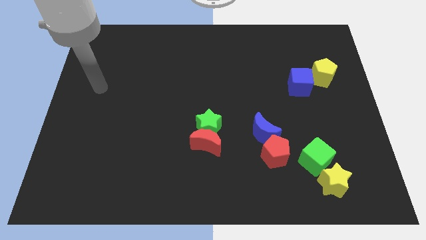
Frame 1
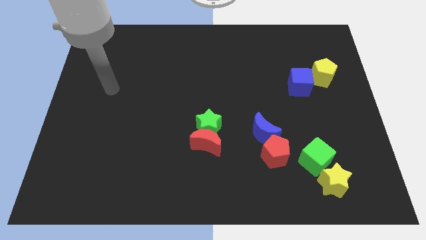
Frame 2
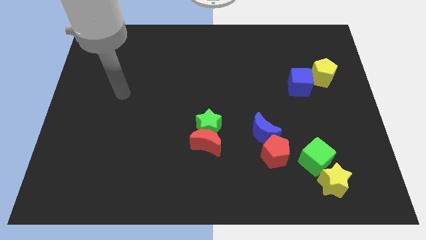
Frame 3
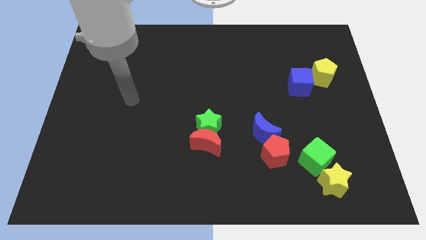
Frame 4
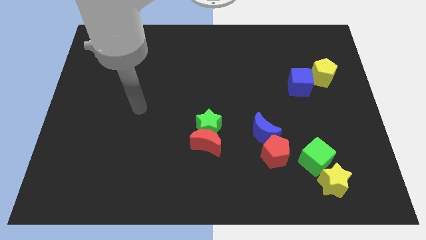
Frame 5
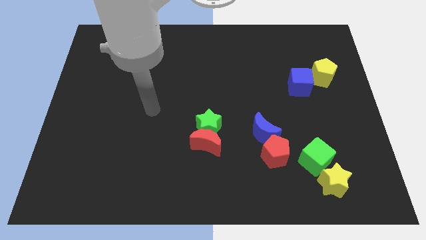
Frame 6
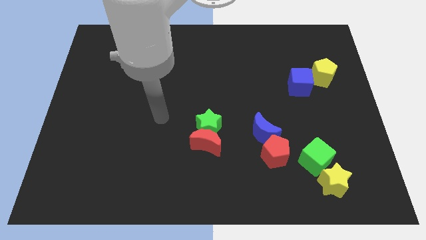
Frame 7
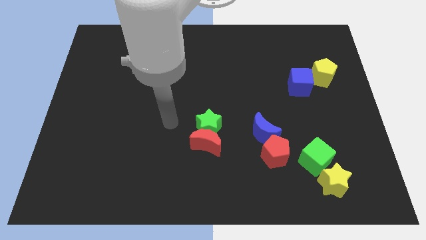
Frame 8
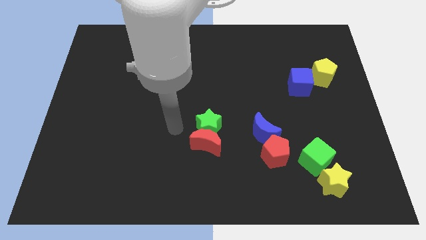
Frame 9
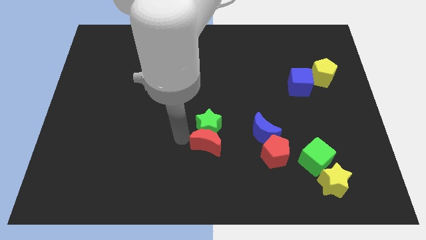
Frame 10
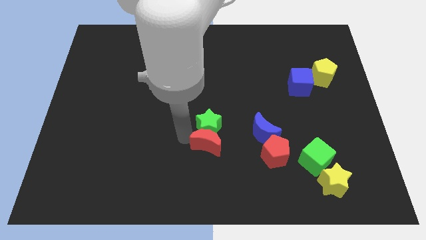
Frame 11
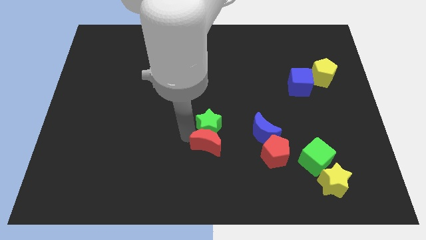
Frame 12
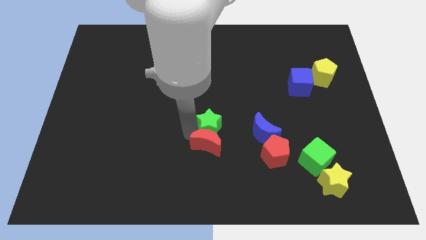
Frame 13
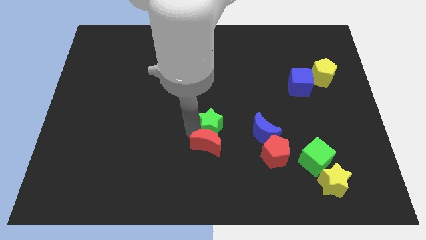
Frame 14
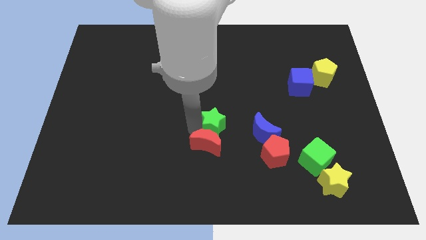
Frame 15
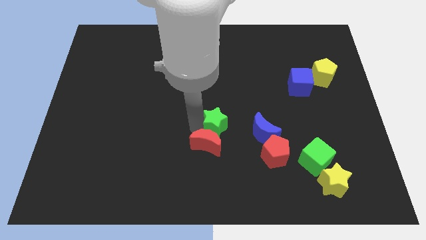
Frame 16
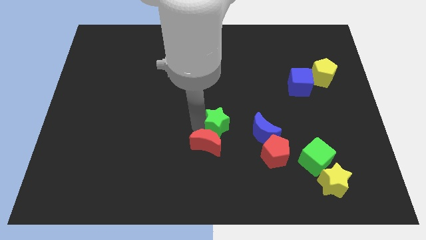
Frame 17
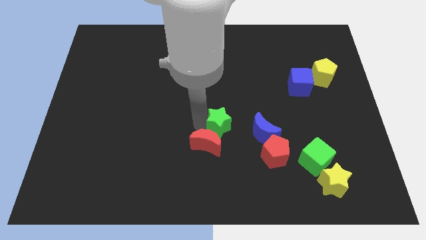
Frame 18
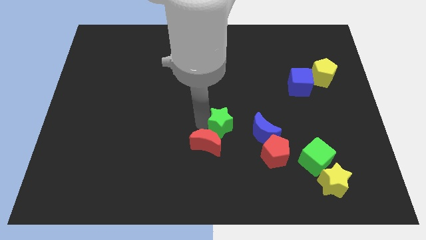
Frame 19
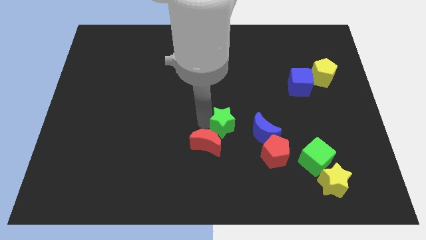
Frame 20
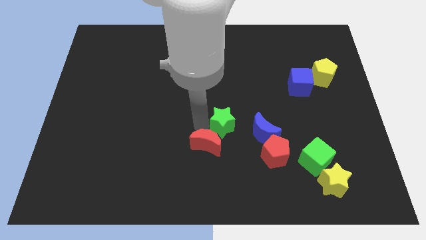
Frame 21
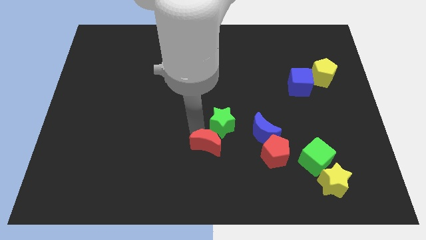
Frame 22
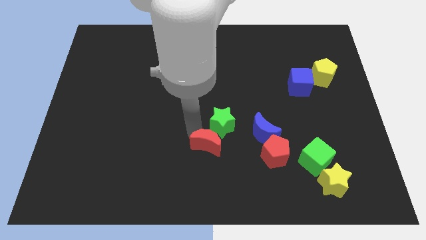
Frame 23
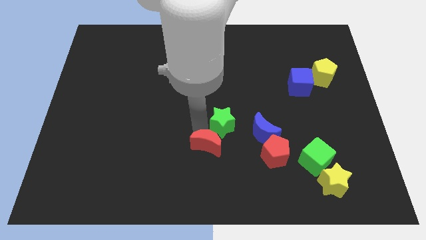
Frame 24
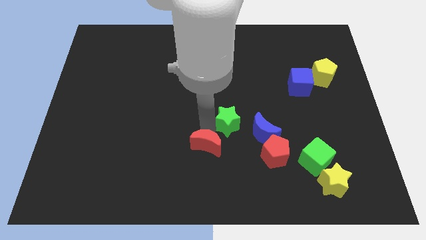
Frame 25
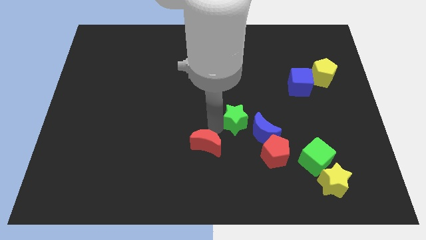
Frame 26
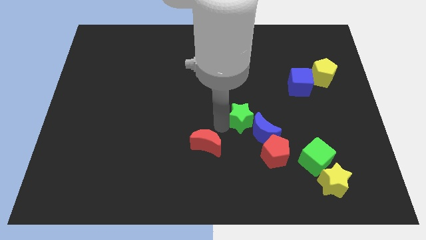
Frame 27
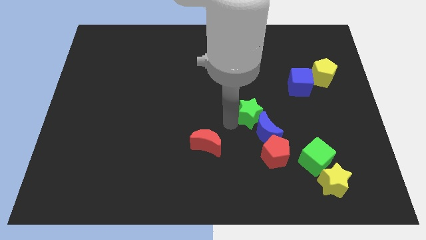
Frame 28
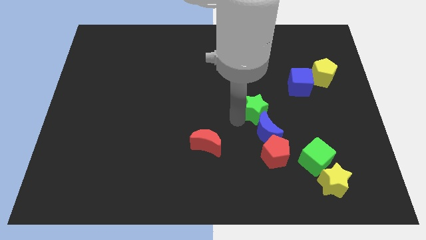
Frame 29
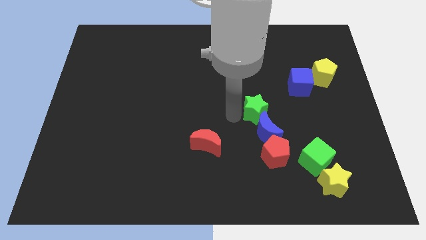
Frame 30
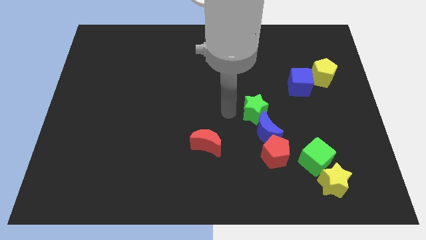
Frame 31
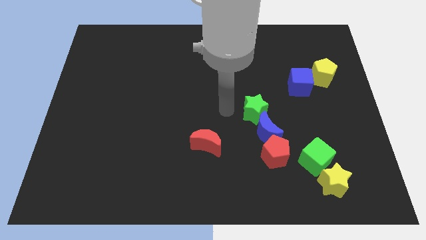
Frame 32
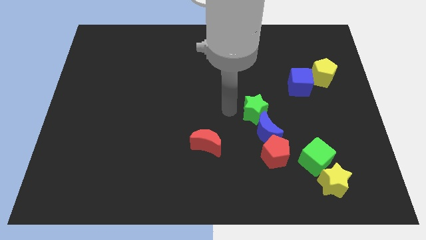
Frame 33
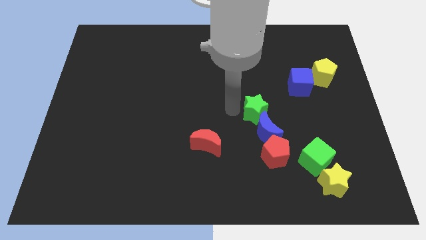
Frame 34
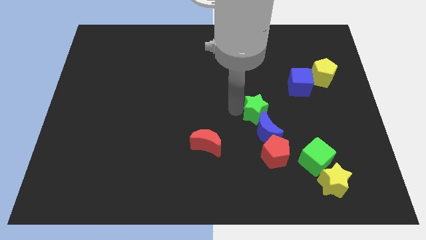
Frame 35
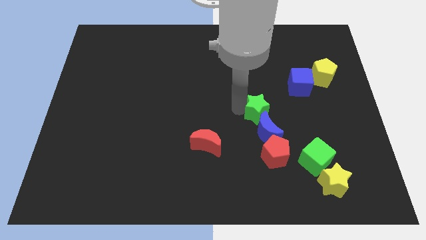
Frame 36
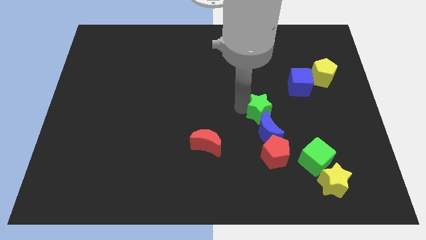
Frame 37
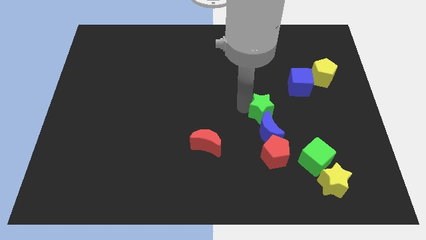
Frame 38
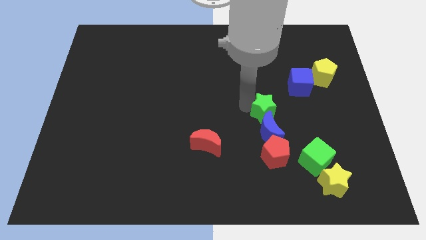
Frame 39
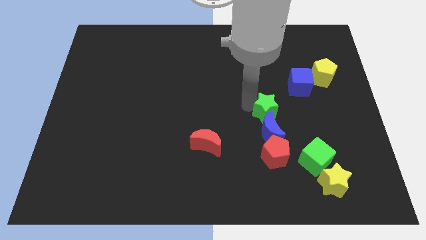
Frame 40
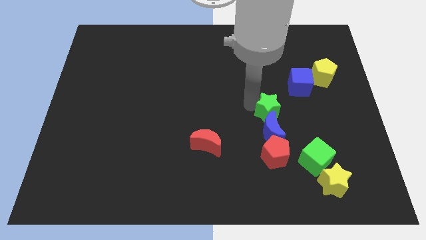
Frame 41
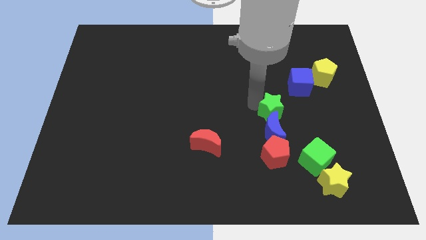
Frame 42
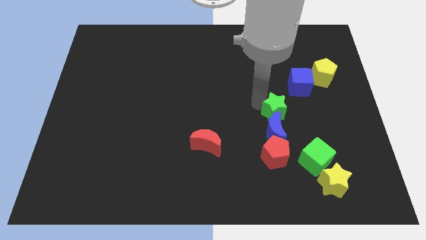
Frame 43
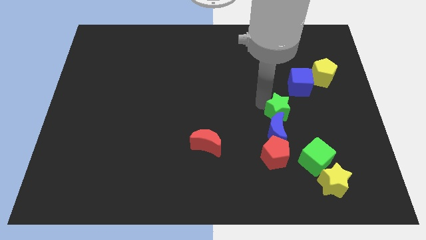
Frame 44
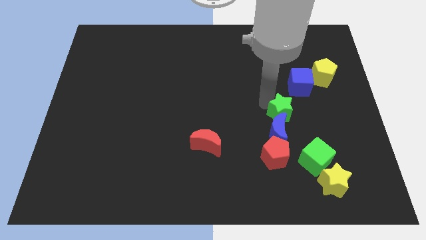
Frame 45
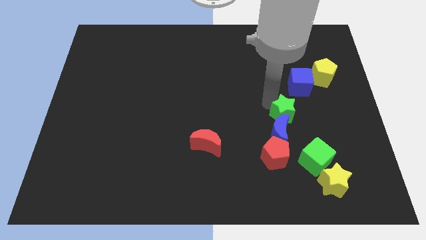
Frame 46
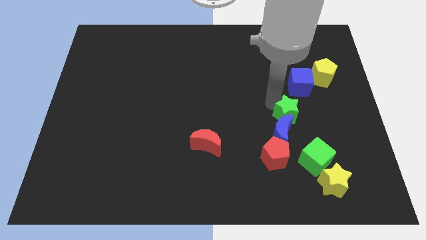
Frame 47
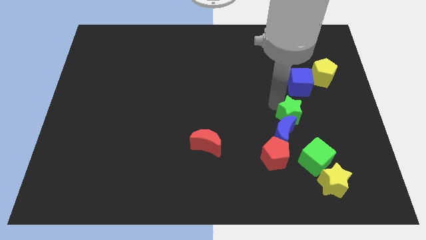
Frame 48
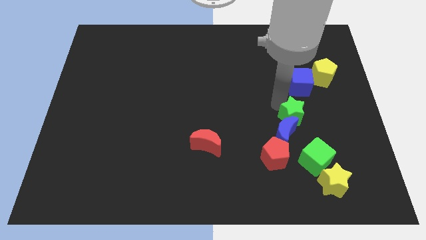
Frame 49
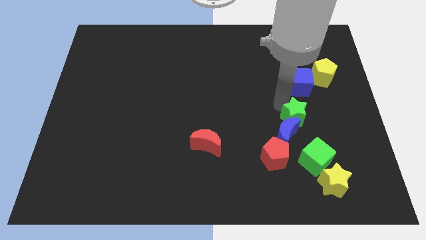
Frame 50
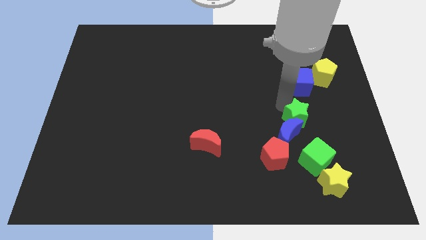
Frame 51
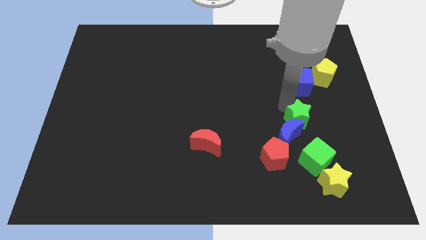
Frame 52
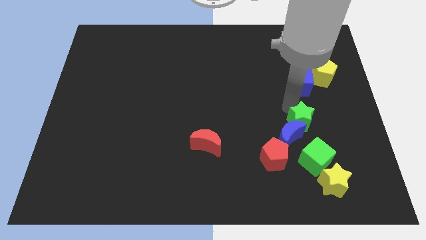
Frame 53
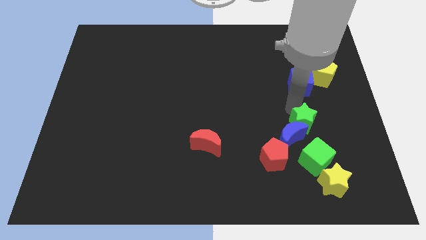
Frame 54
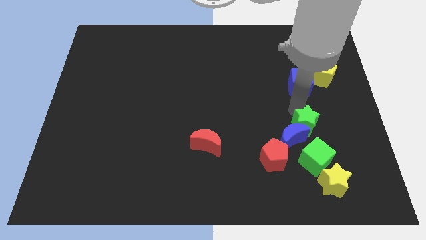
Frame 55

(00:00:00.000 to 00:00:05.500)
push the green star above the yellow star

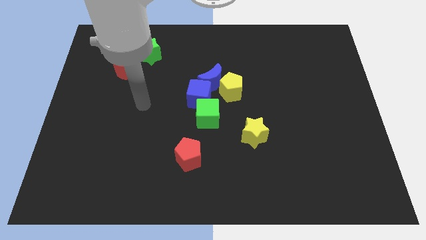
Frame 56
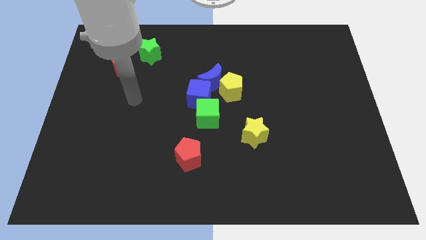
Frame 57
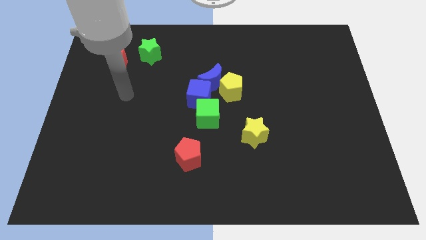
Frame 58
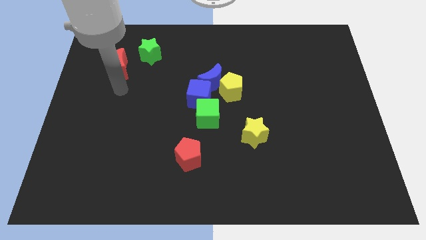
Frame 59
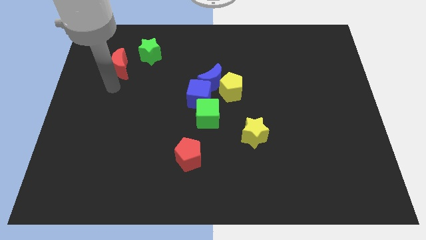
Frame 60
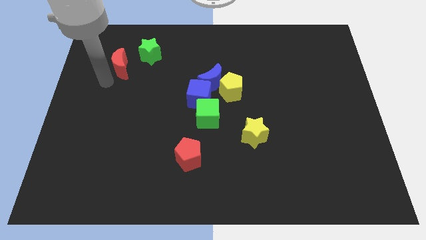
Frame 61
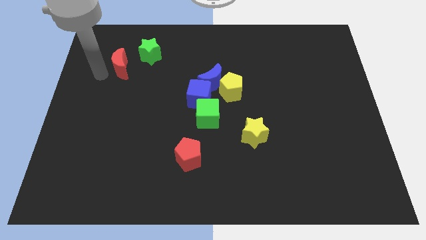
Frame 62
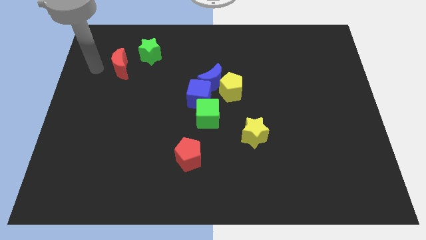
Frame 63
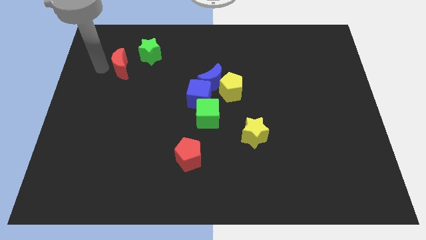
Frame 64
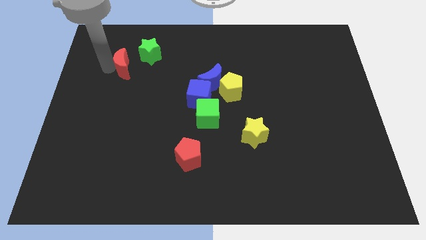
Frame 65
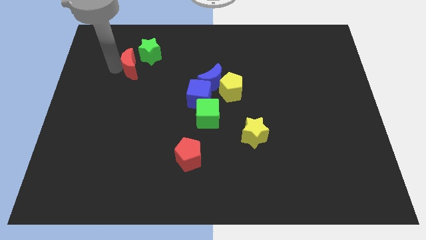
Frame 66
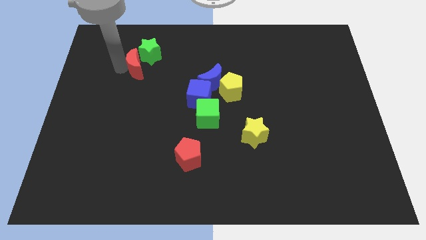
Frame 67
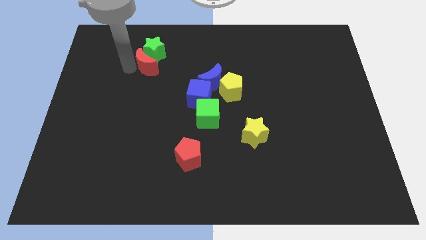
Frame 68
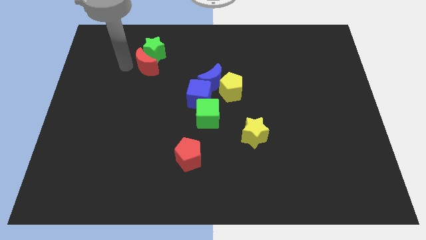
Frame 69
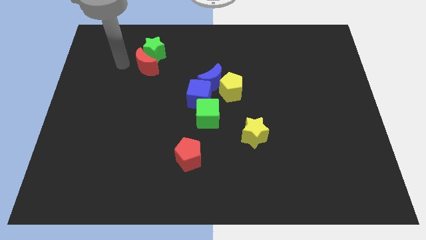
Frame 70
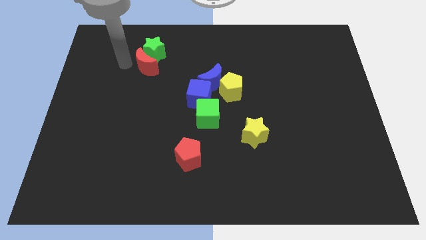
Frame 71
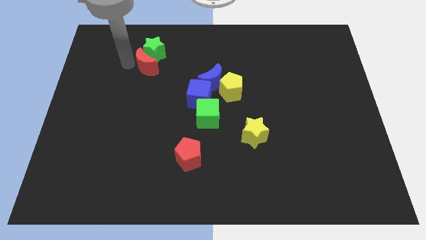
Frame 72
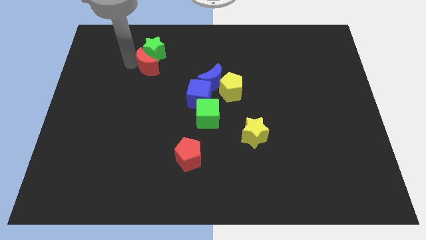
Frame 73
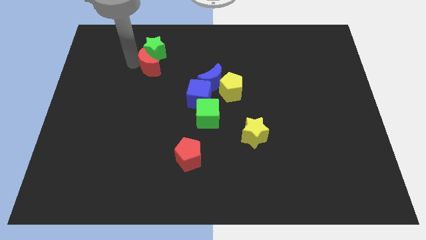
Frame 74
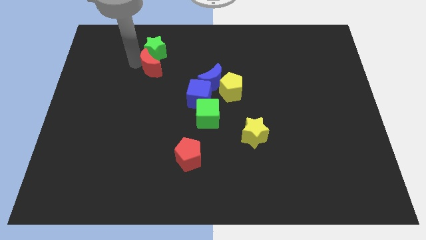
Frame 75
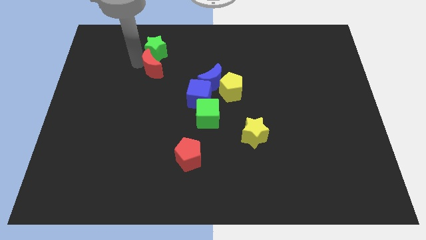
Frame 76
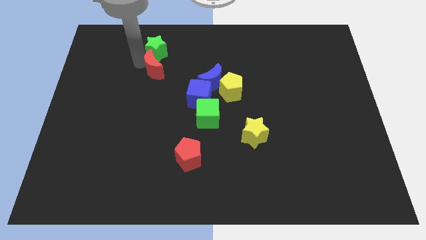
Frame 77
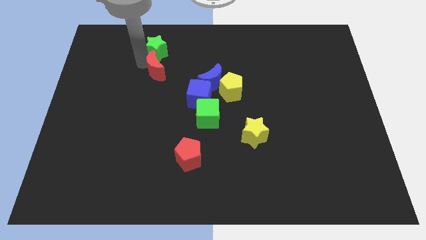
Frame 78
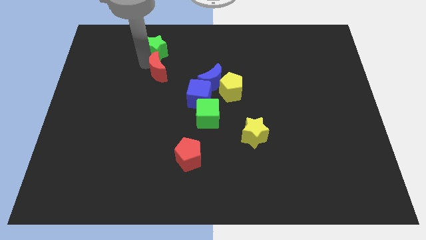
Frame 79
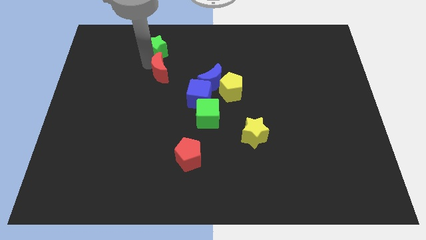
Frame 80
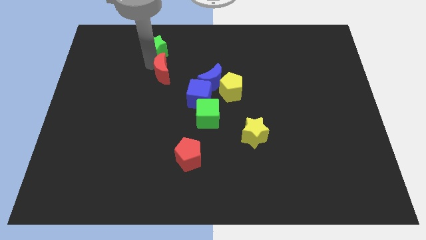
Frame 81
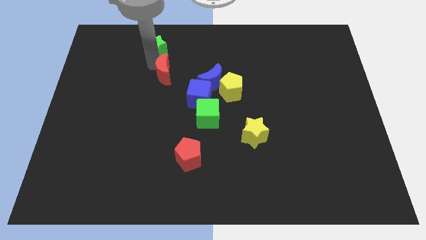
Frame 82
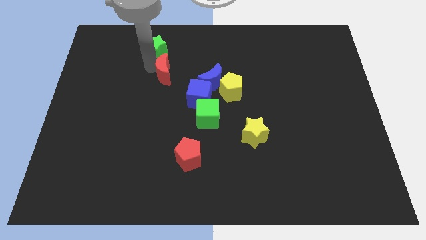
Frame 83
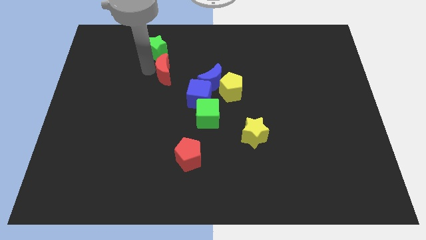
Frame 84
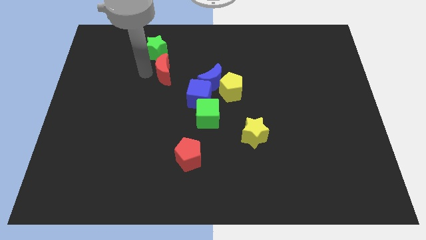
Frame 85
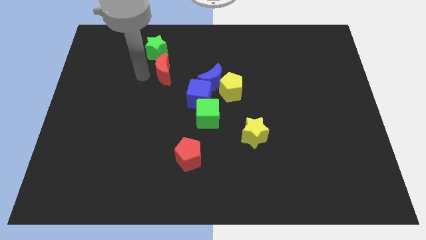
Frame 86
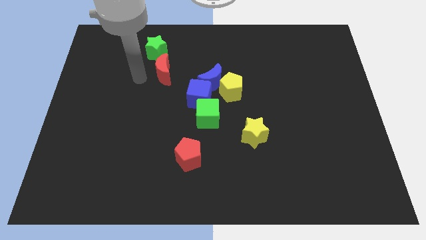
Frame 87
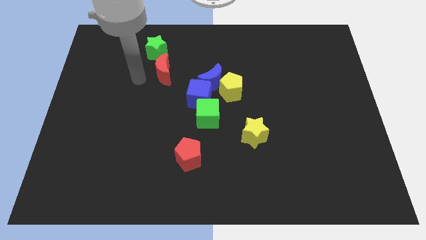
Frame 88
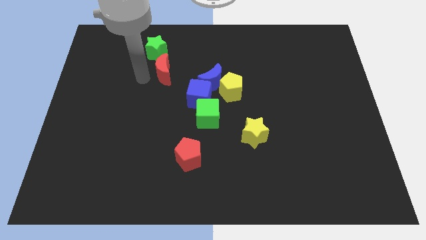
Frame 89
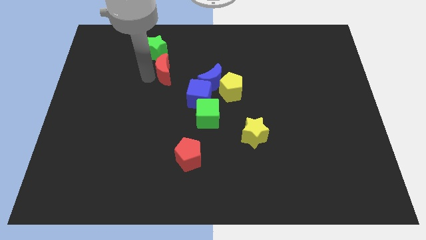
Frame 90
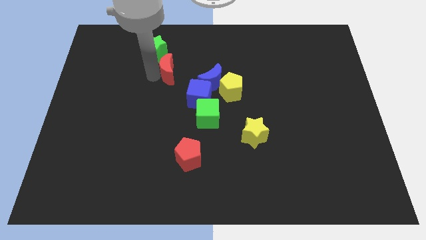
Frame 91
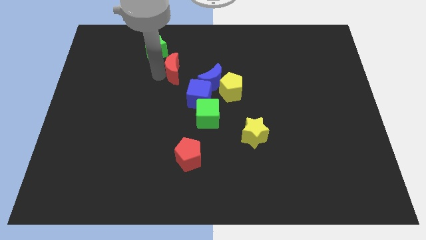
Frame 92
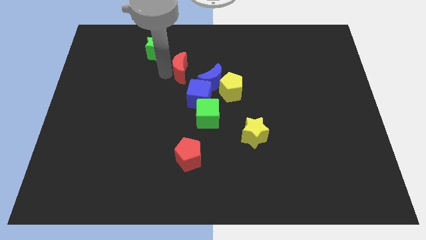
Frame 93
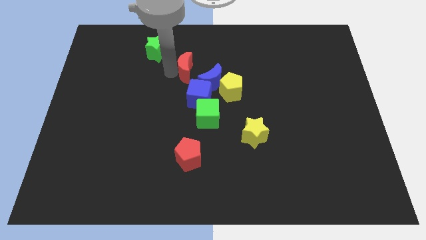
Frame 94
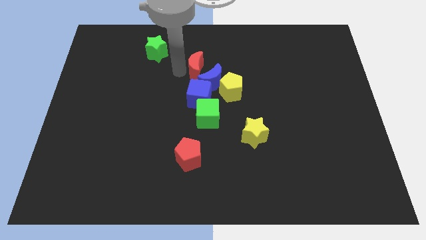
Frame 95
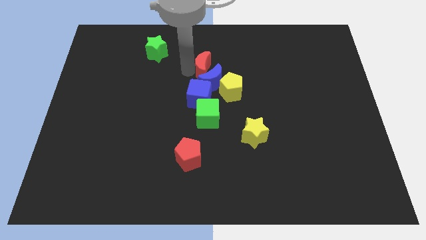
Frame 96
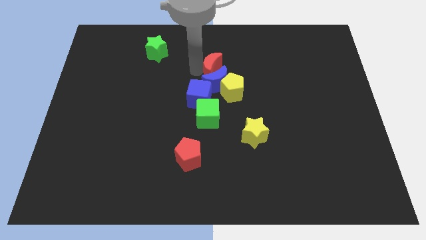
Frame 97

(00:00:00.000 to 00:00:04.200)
put the red moon diagonally up and to the right of the blue moon
